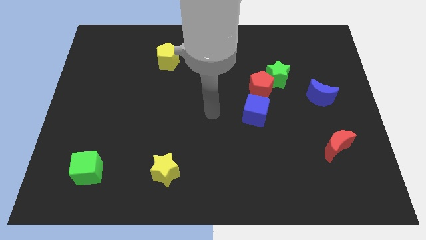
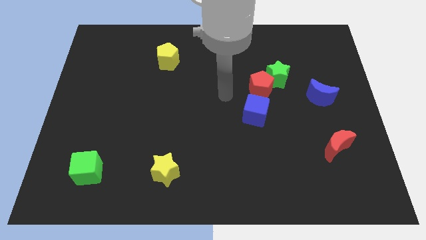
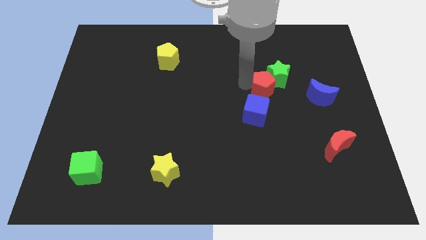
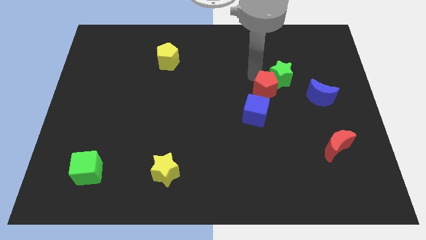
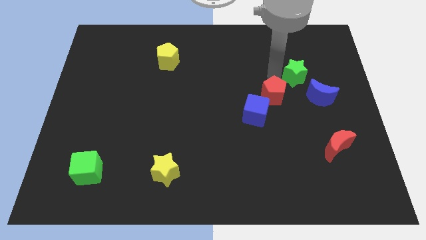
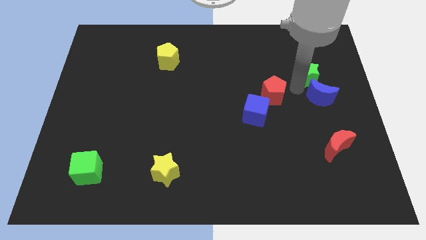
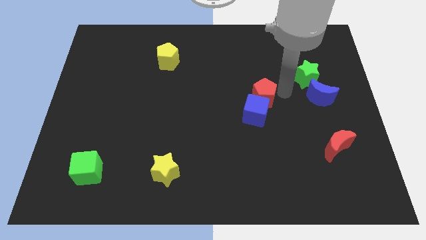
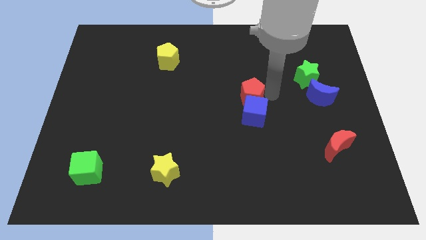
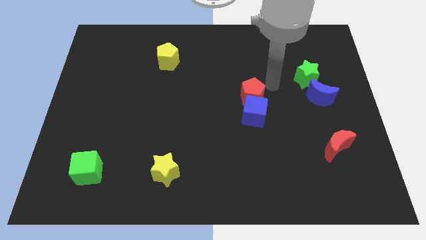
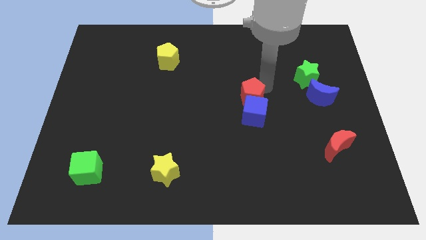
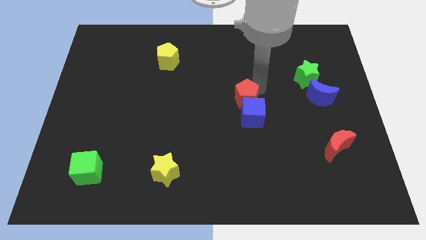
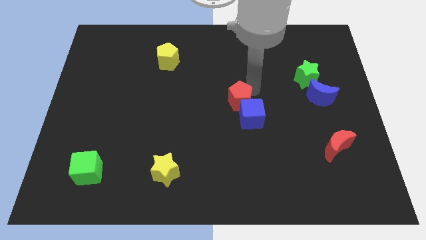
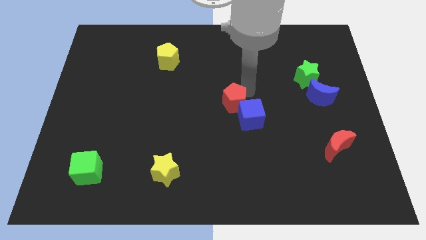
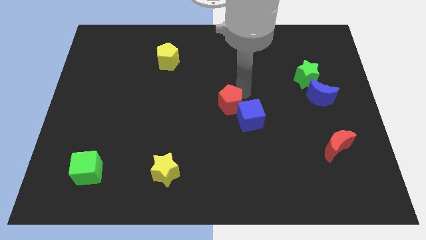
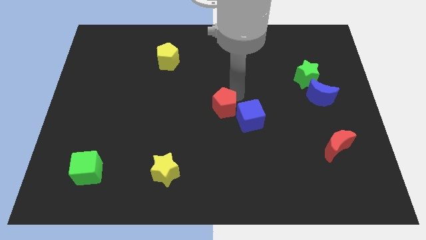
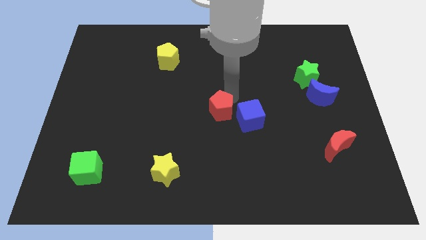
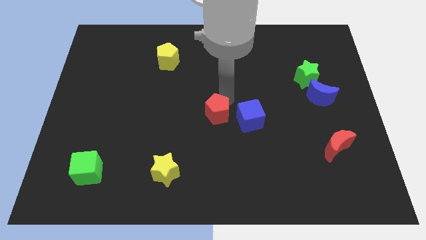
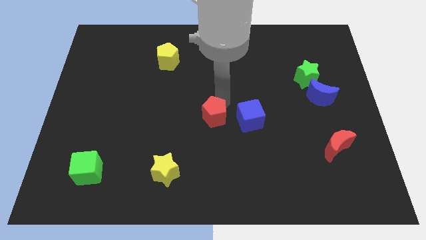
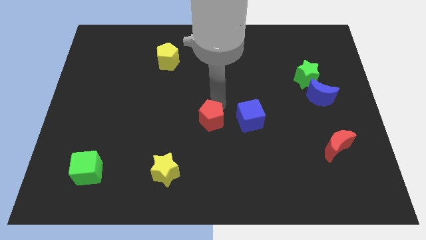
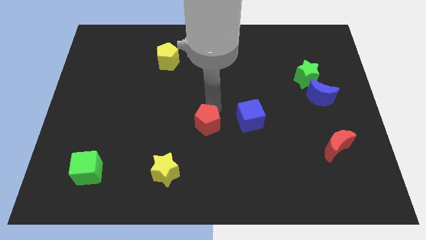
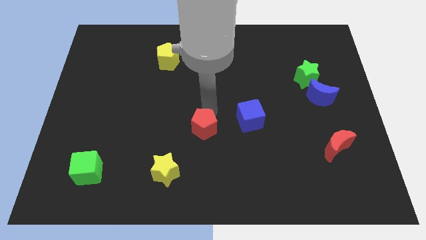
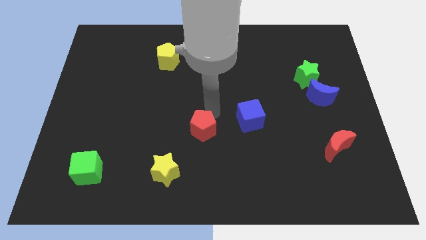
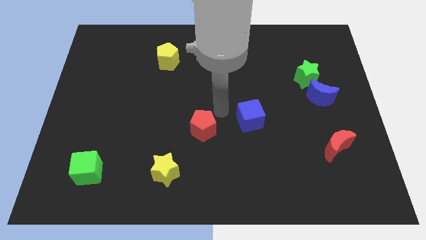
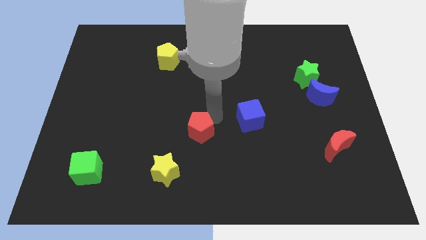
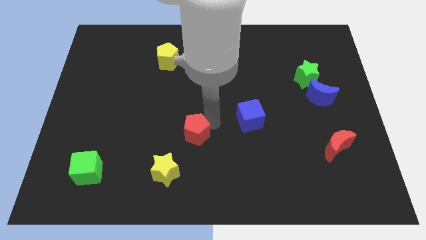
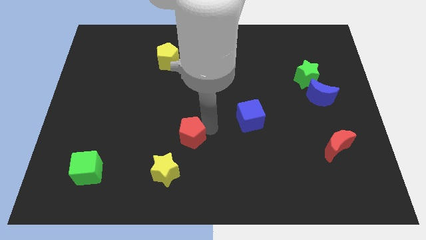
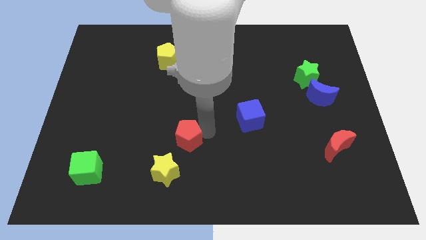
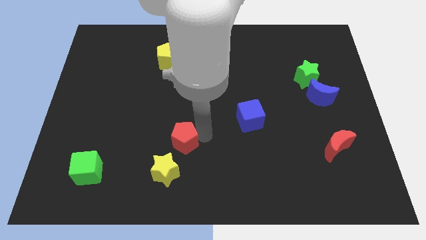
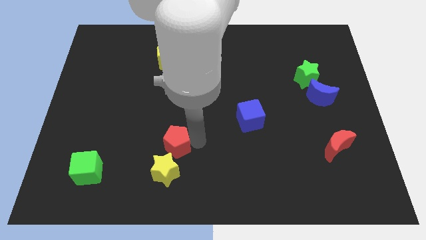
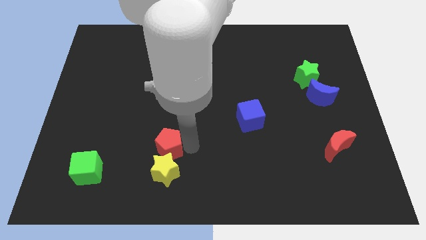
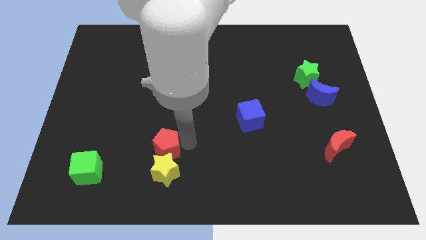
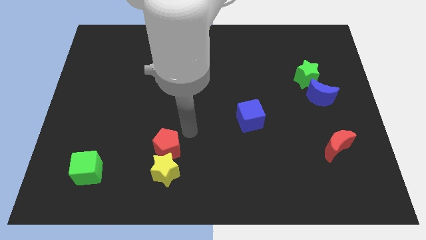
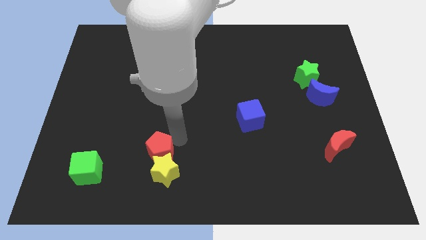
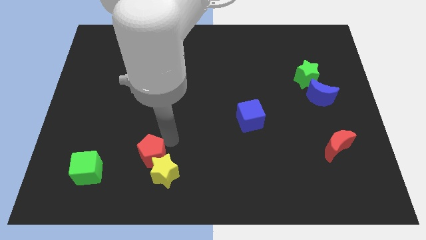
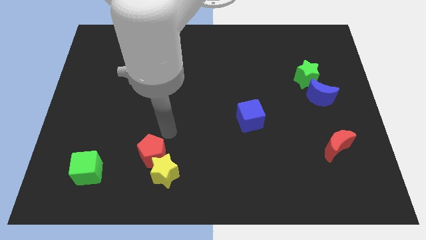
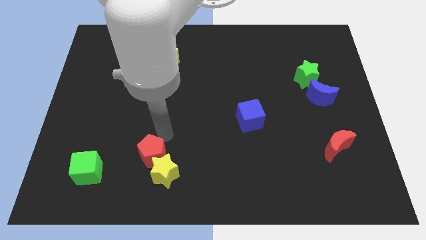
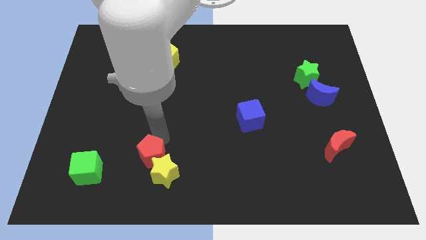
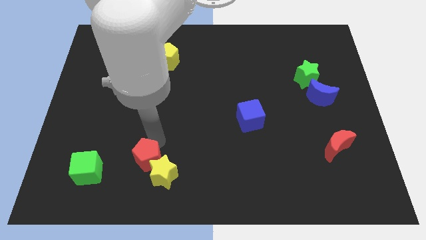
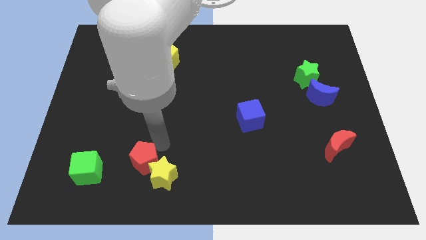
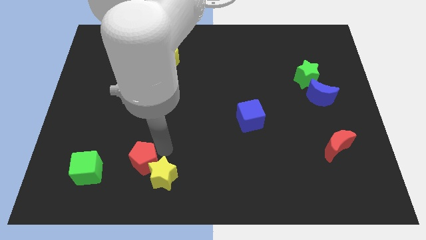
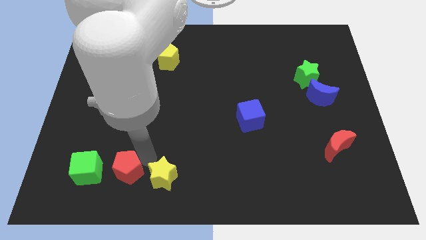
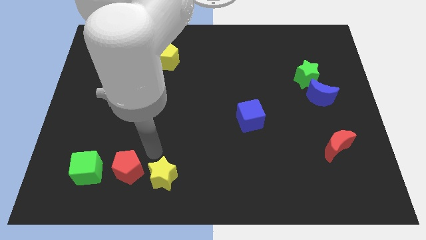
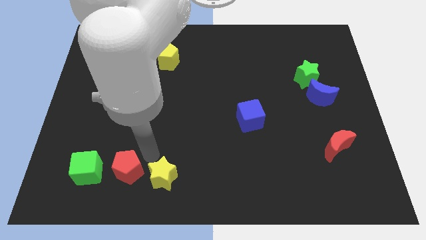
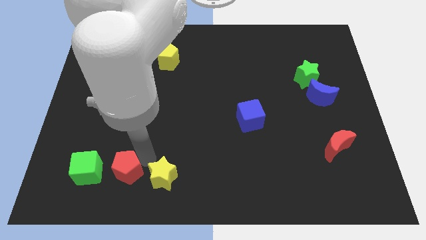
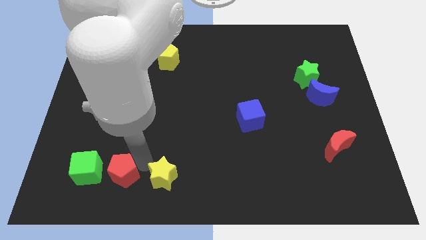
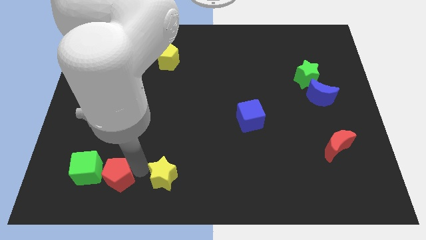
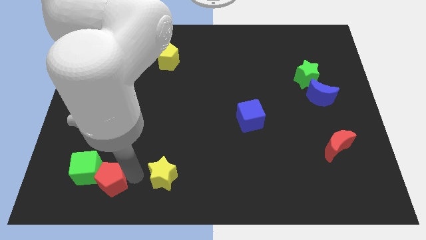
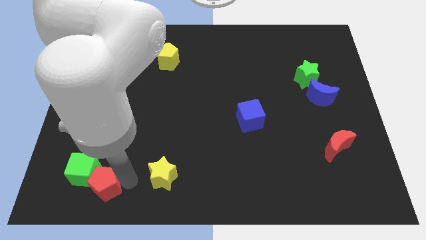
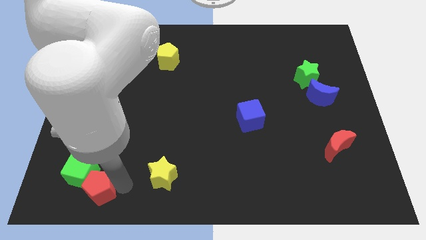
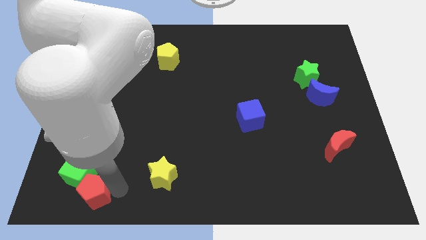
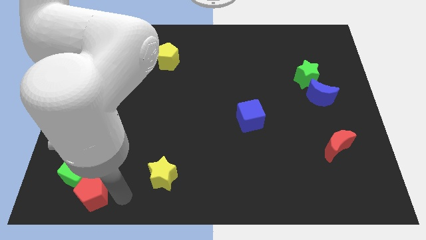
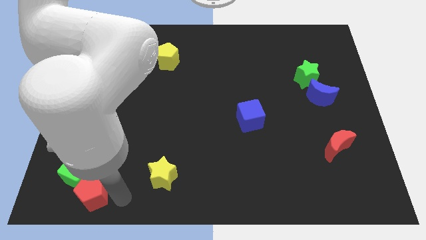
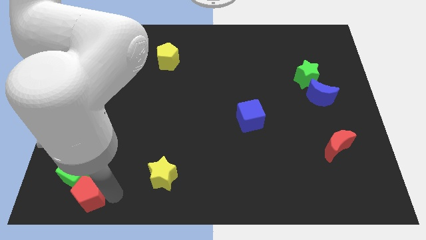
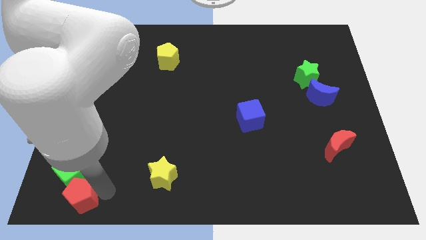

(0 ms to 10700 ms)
put the red pentagon to the bottom left corner

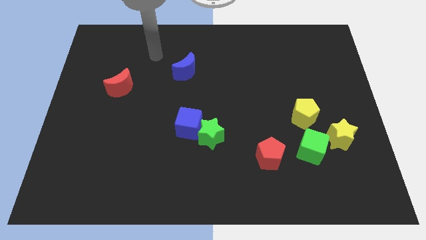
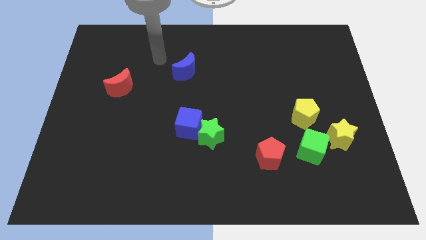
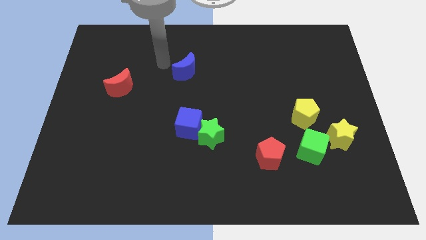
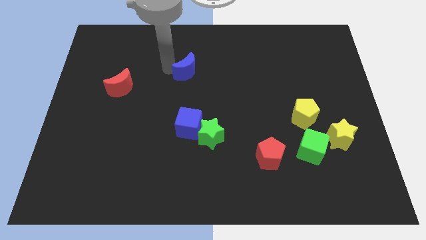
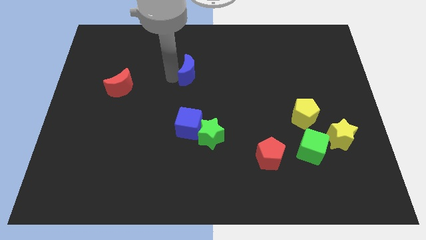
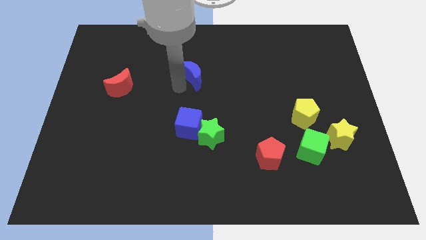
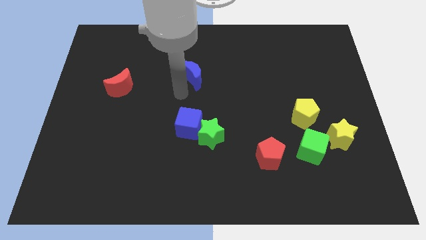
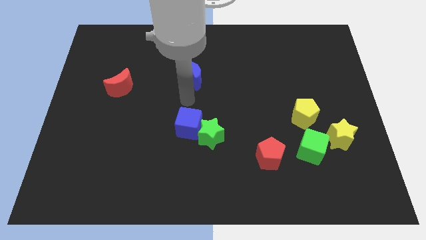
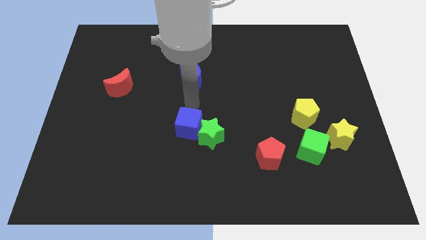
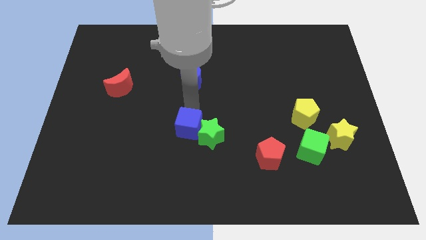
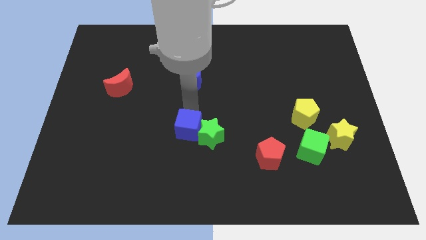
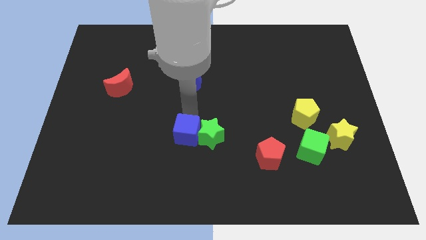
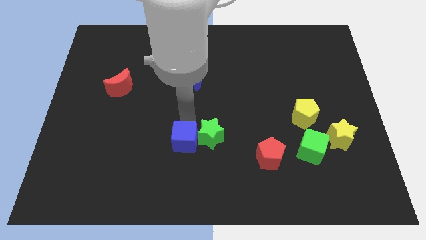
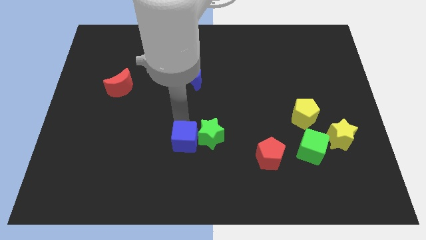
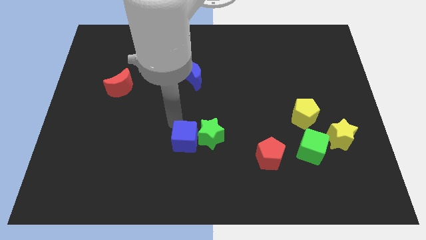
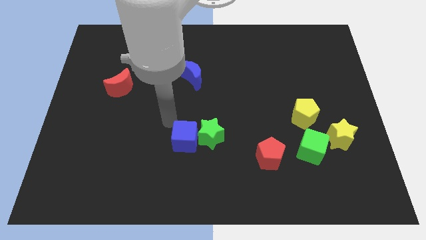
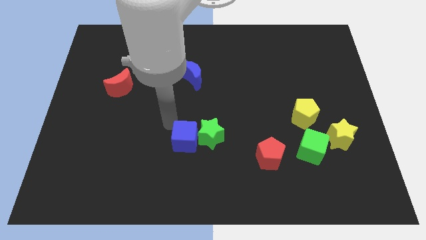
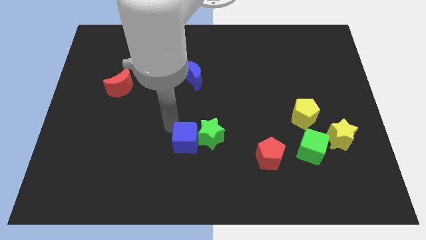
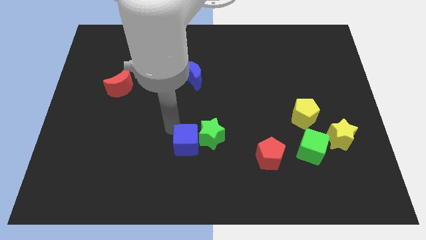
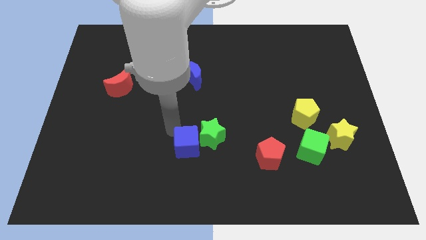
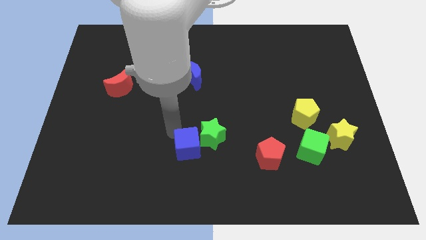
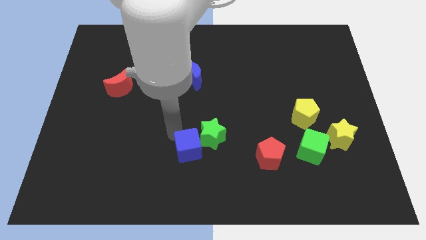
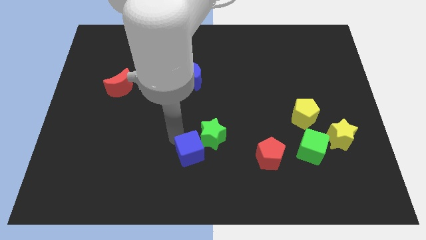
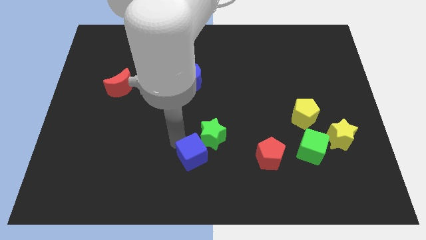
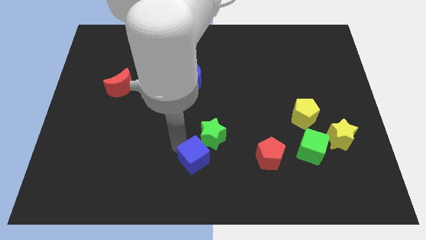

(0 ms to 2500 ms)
move the blue cube to the bottom
